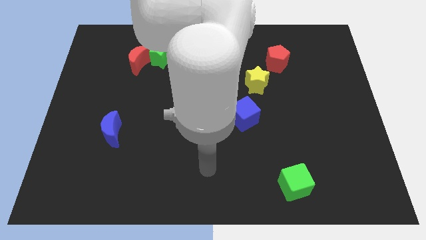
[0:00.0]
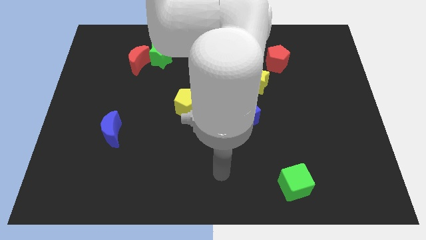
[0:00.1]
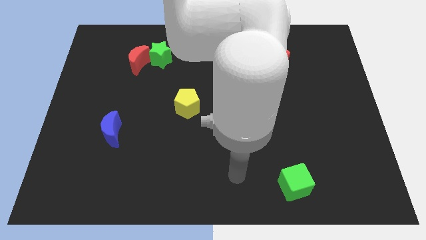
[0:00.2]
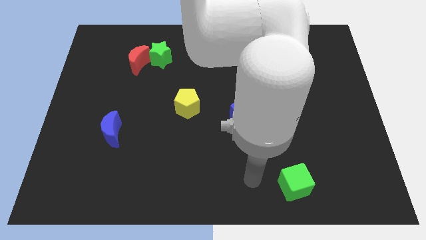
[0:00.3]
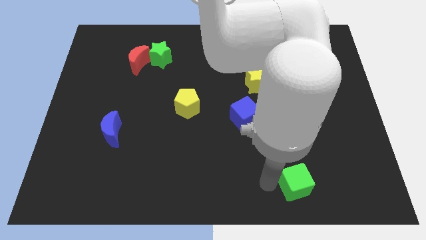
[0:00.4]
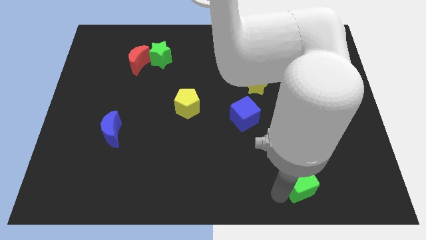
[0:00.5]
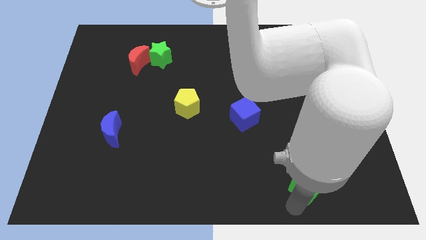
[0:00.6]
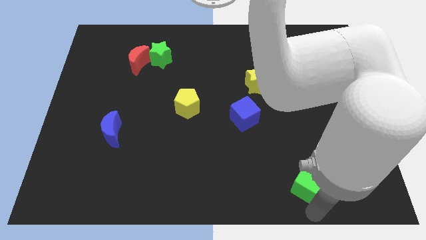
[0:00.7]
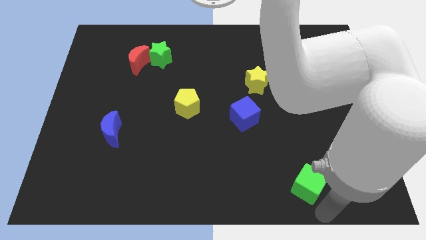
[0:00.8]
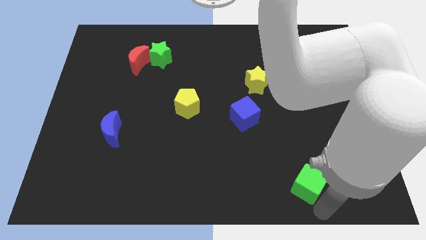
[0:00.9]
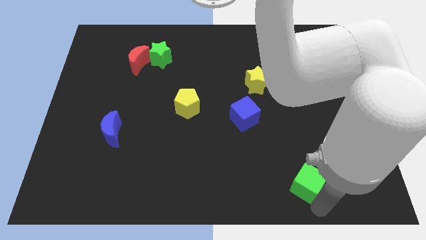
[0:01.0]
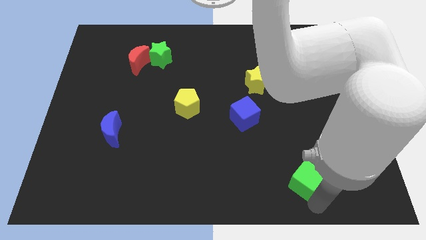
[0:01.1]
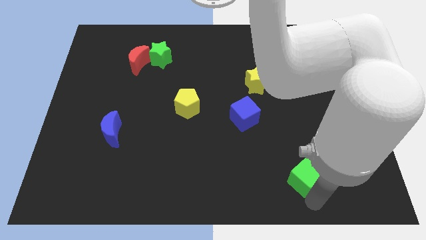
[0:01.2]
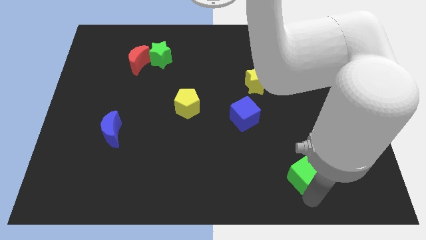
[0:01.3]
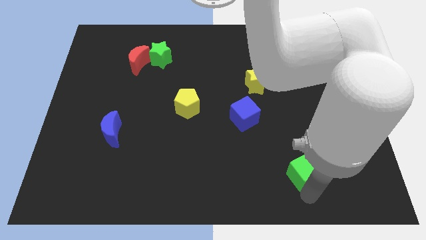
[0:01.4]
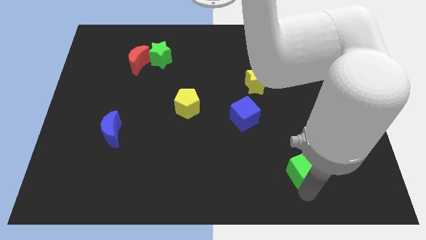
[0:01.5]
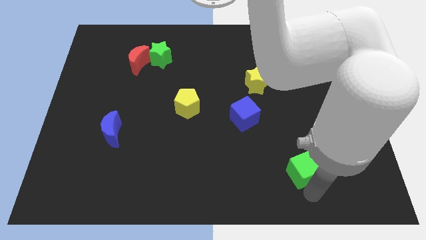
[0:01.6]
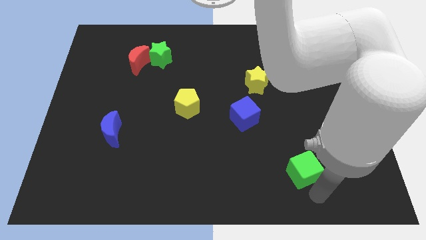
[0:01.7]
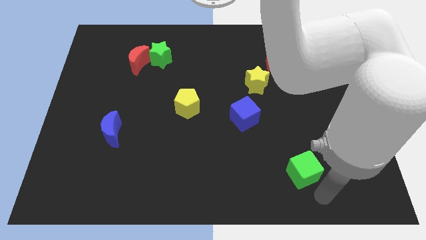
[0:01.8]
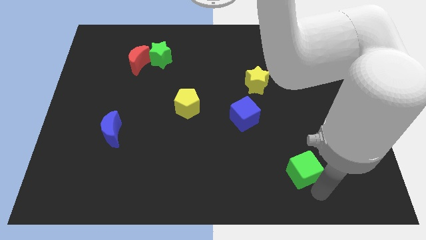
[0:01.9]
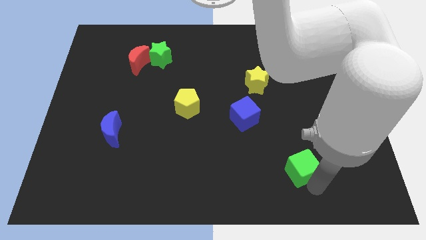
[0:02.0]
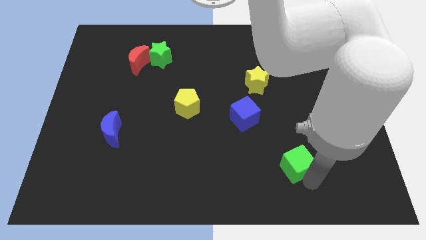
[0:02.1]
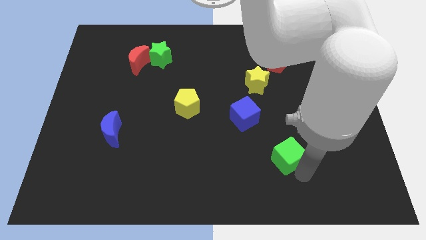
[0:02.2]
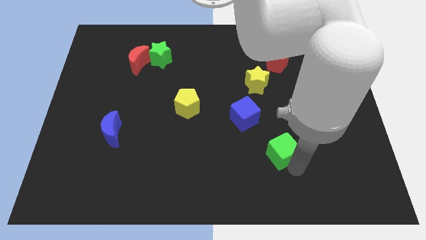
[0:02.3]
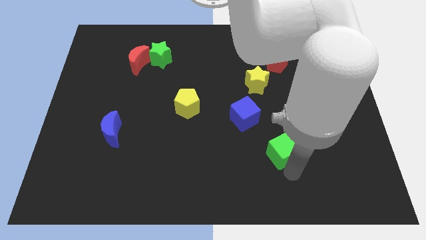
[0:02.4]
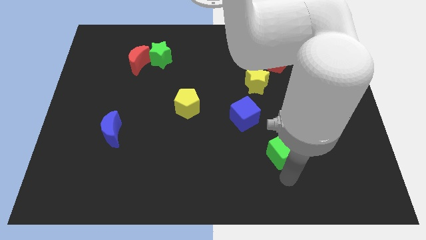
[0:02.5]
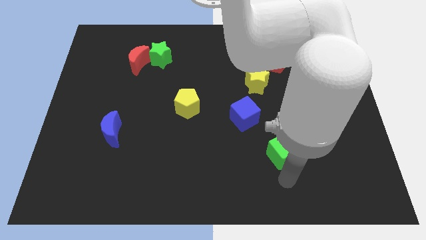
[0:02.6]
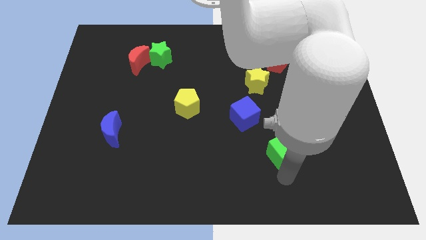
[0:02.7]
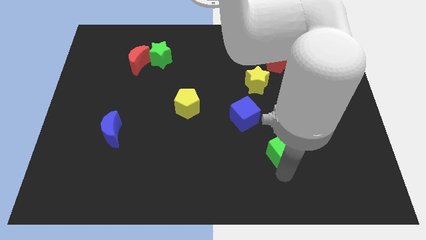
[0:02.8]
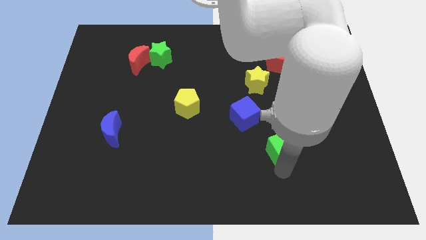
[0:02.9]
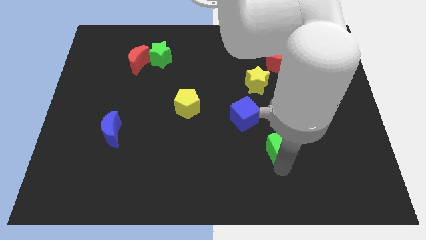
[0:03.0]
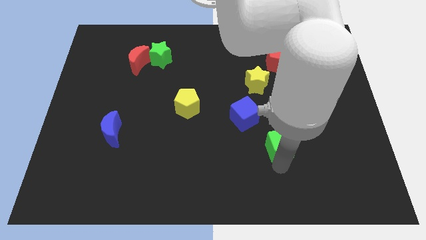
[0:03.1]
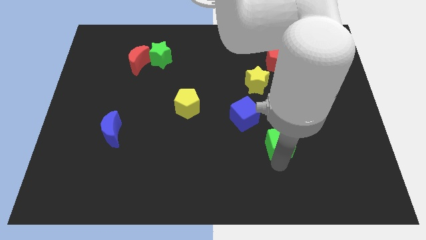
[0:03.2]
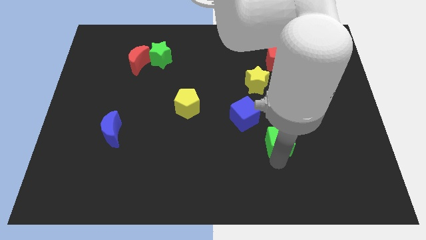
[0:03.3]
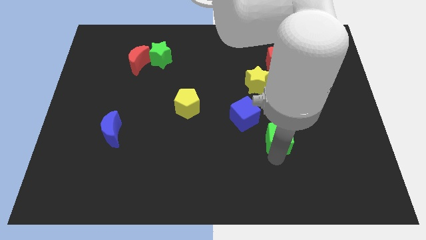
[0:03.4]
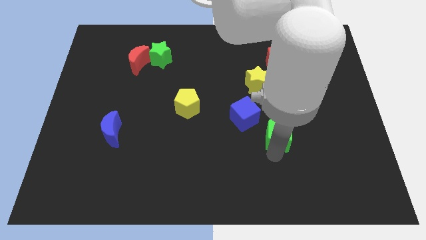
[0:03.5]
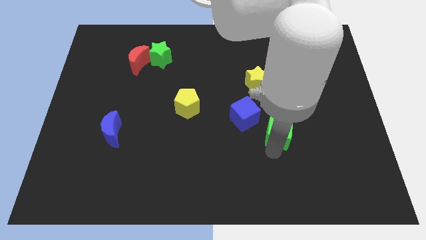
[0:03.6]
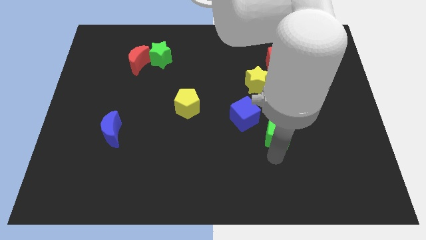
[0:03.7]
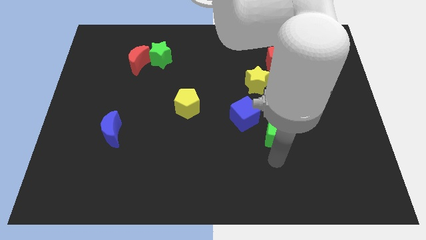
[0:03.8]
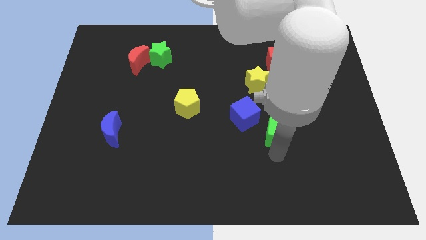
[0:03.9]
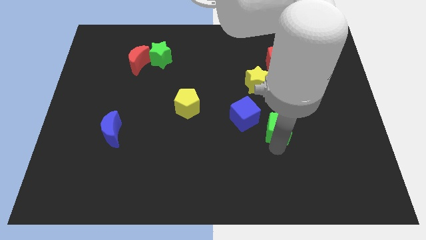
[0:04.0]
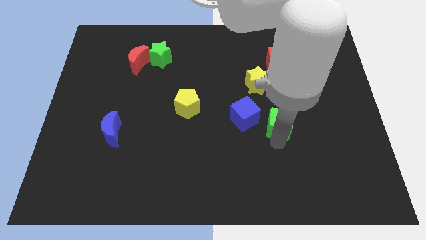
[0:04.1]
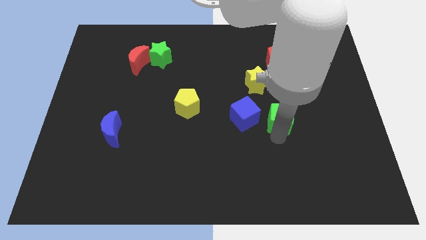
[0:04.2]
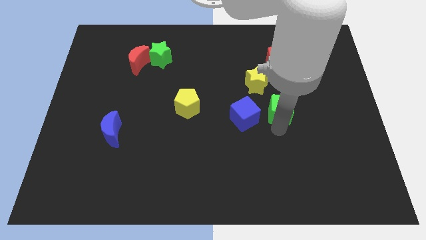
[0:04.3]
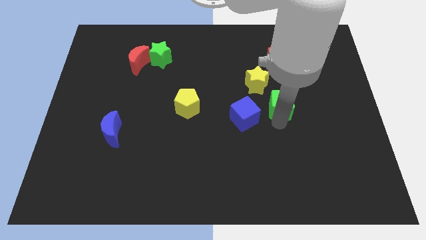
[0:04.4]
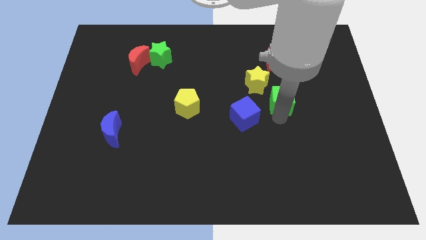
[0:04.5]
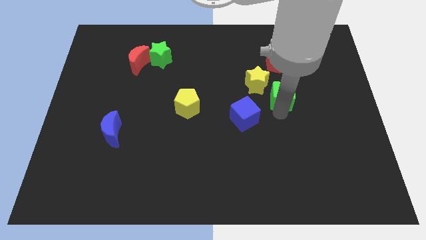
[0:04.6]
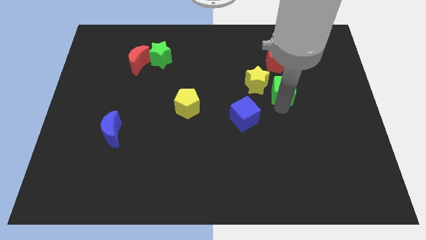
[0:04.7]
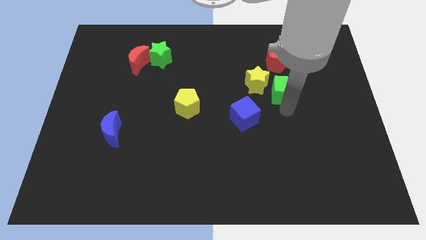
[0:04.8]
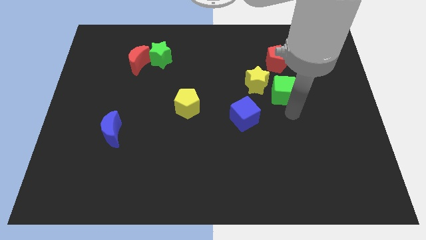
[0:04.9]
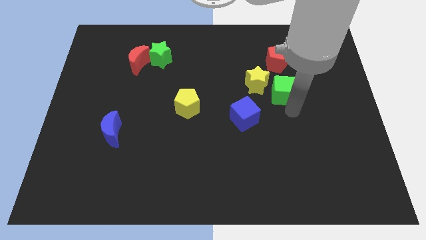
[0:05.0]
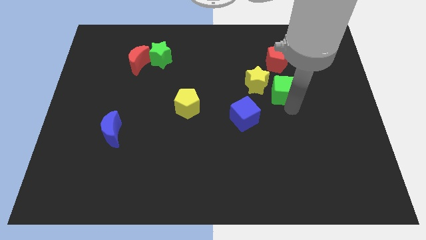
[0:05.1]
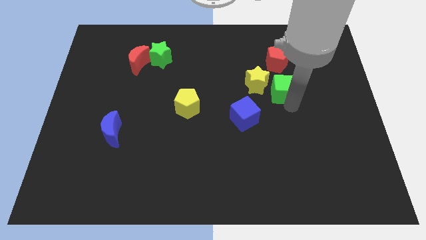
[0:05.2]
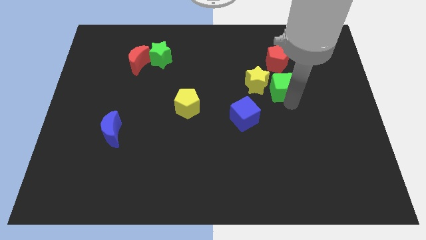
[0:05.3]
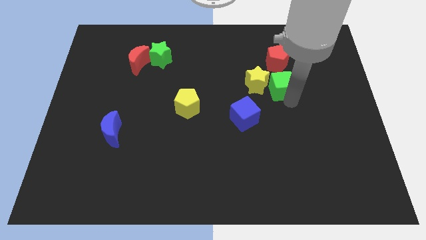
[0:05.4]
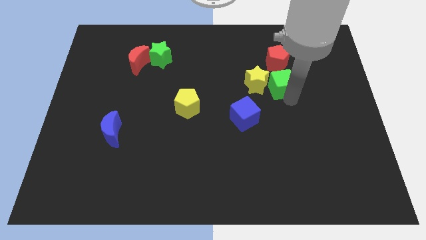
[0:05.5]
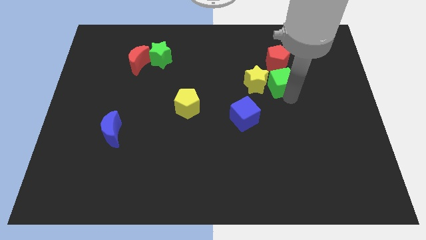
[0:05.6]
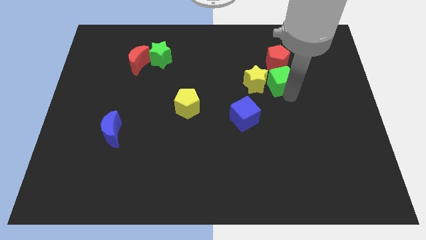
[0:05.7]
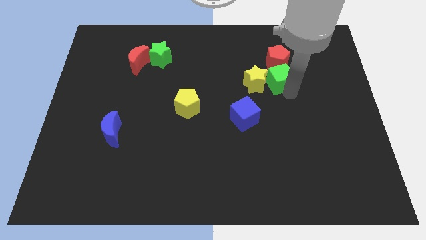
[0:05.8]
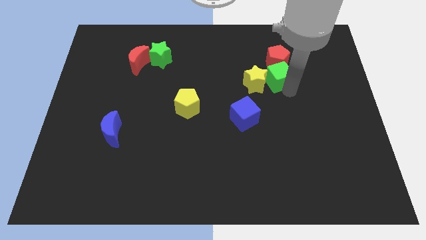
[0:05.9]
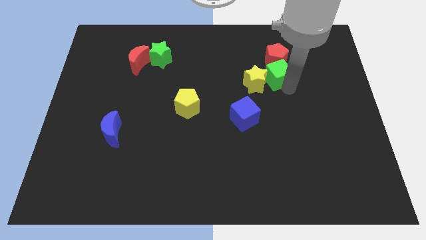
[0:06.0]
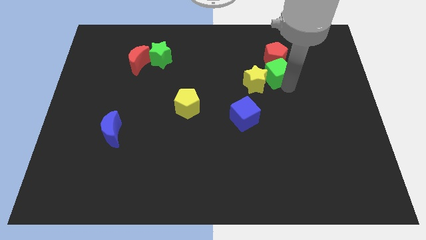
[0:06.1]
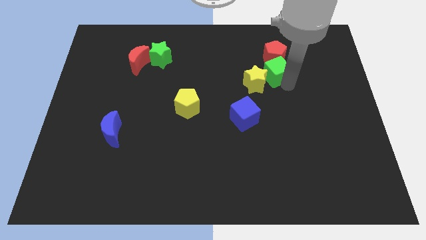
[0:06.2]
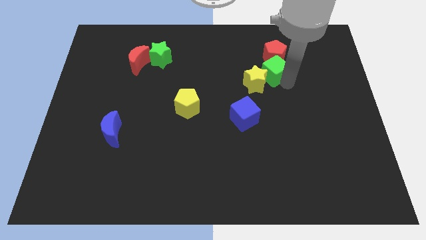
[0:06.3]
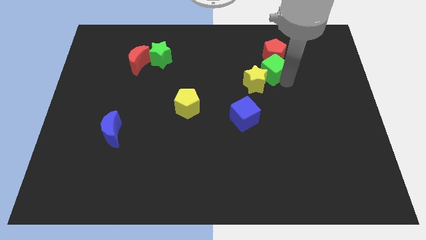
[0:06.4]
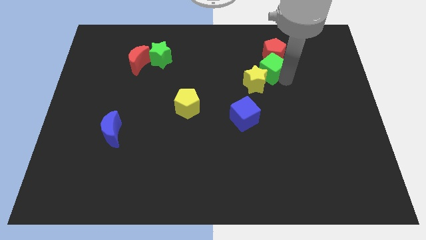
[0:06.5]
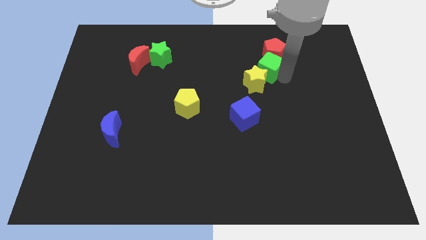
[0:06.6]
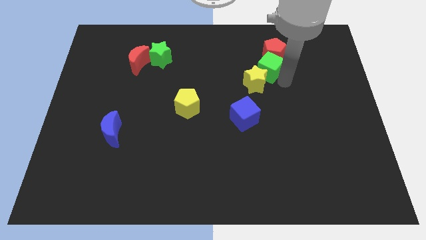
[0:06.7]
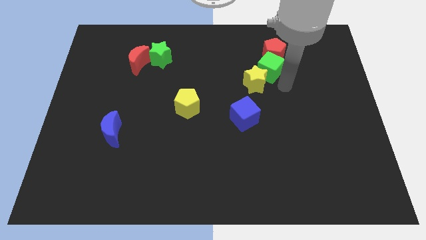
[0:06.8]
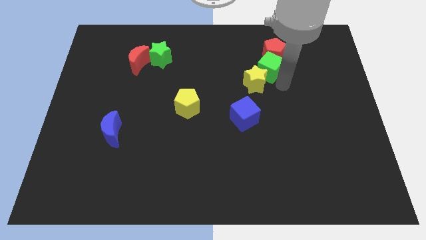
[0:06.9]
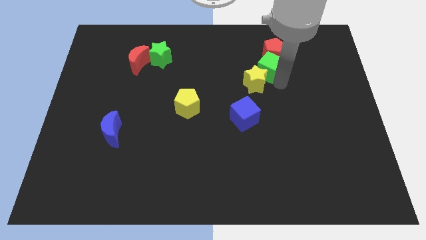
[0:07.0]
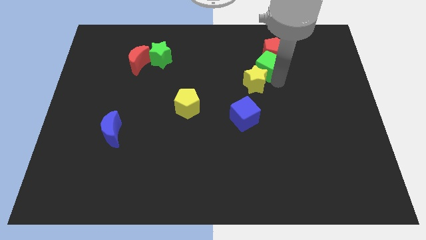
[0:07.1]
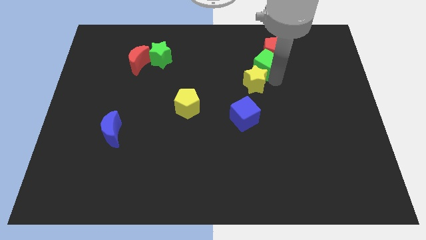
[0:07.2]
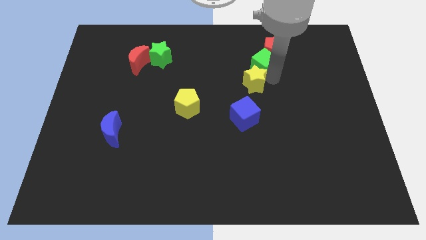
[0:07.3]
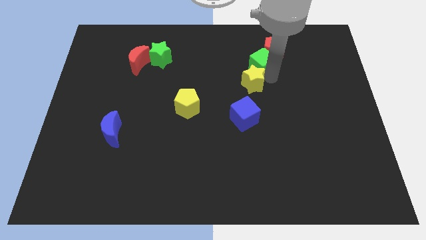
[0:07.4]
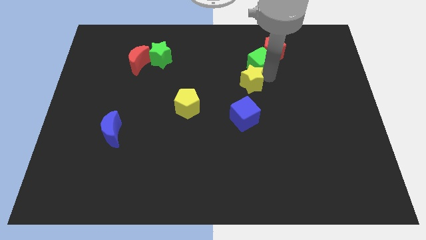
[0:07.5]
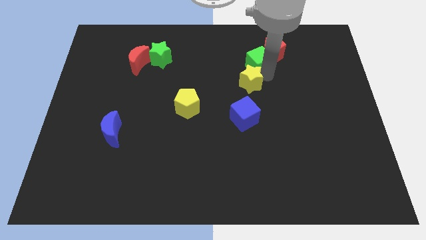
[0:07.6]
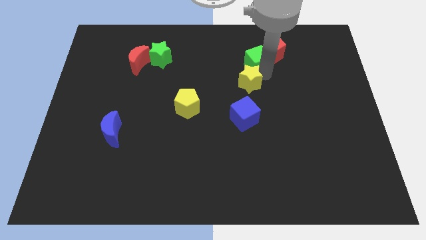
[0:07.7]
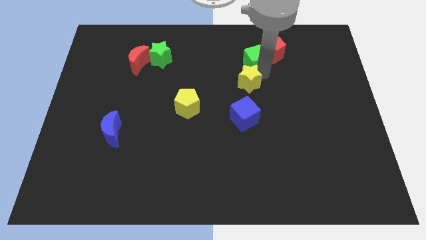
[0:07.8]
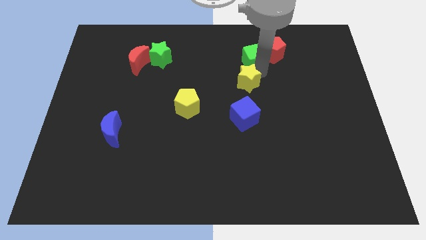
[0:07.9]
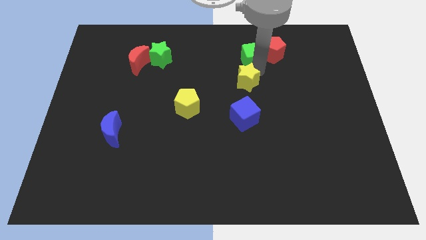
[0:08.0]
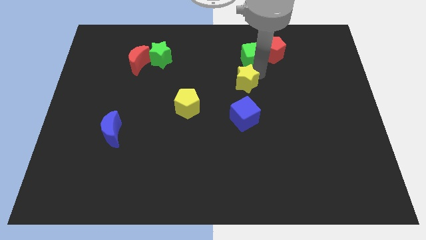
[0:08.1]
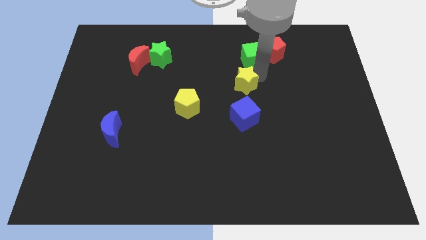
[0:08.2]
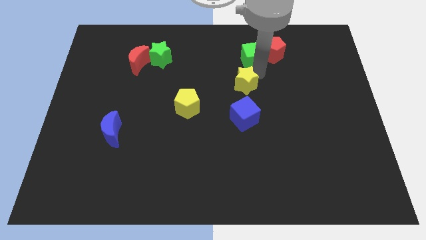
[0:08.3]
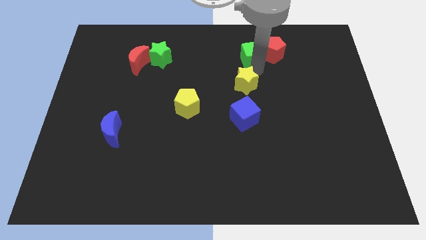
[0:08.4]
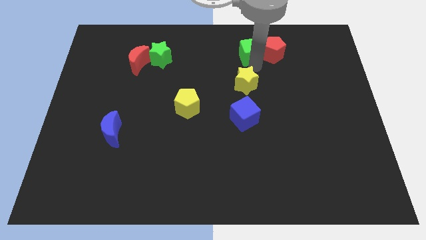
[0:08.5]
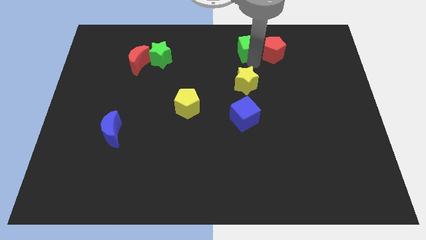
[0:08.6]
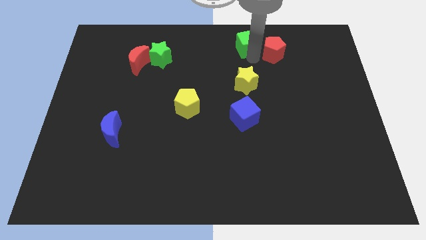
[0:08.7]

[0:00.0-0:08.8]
move the green cube to the towards your base
